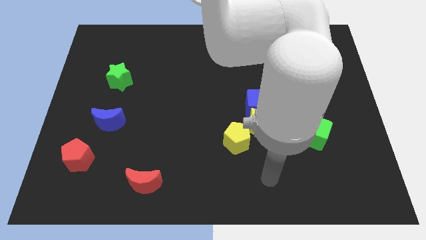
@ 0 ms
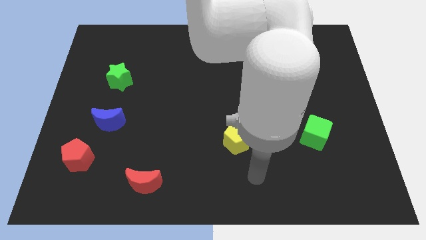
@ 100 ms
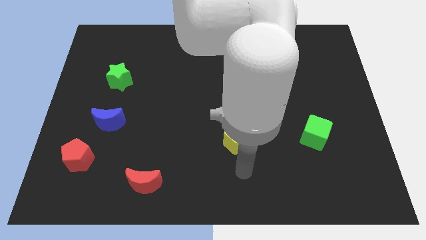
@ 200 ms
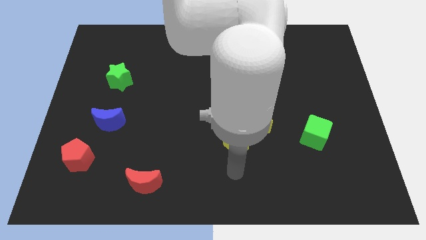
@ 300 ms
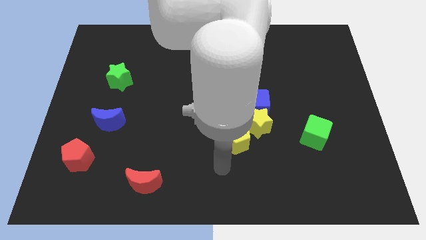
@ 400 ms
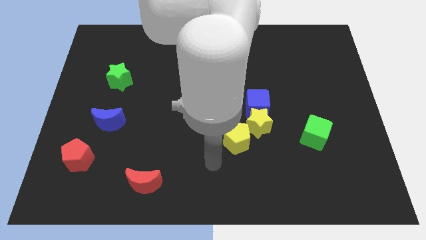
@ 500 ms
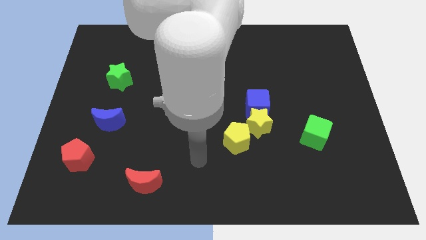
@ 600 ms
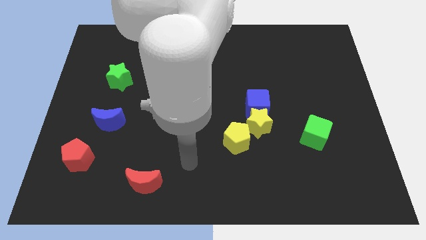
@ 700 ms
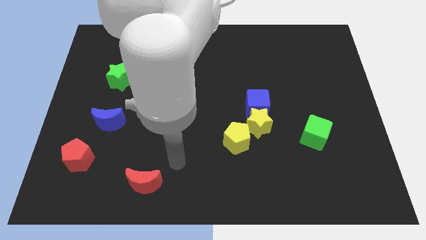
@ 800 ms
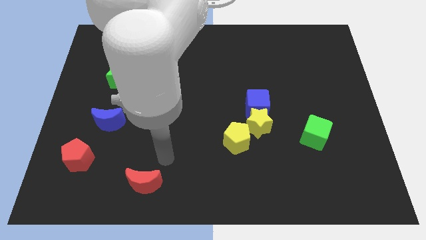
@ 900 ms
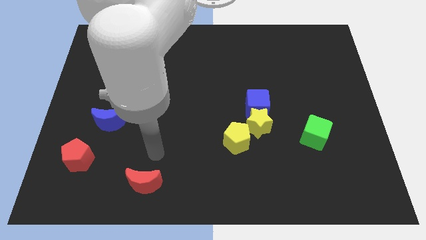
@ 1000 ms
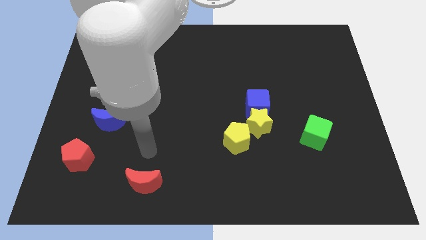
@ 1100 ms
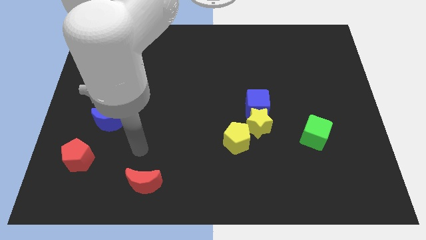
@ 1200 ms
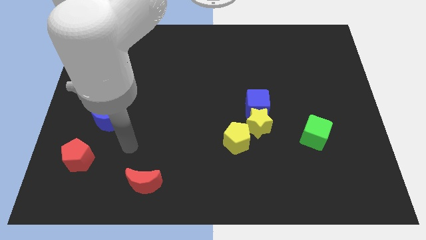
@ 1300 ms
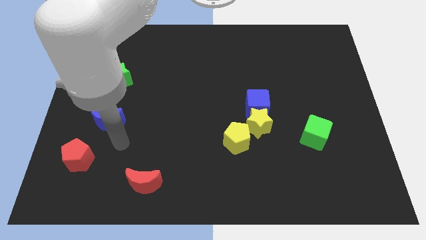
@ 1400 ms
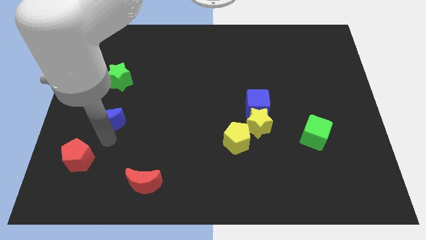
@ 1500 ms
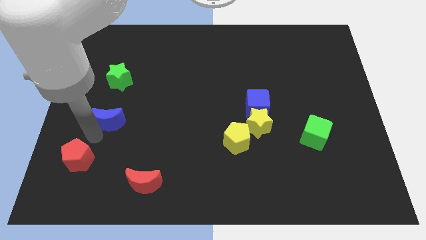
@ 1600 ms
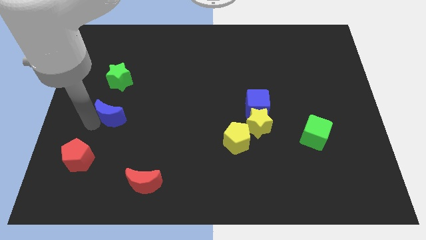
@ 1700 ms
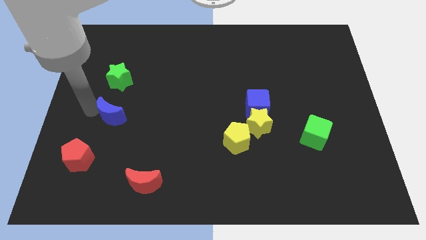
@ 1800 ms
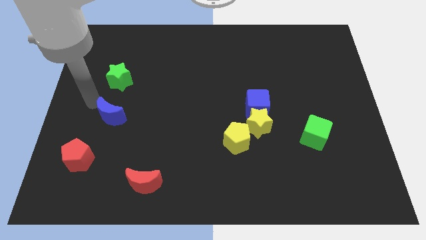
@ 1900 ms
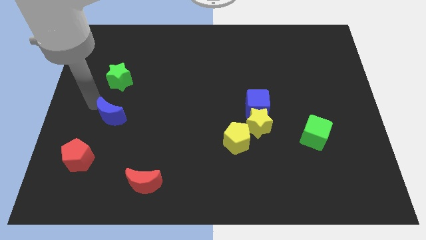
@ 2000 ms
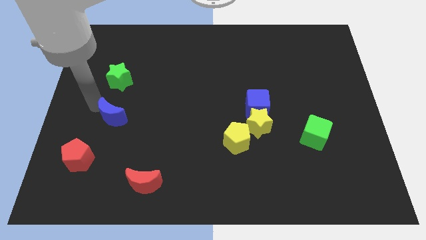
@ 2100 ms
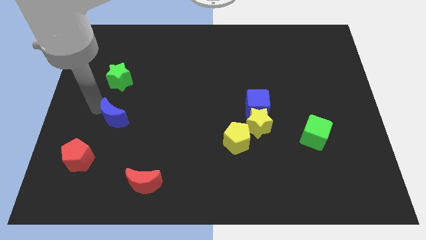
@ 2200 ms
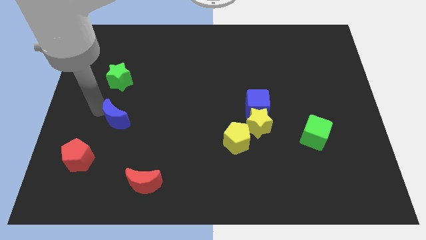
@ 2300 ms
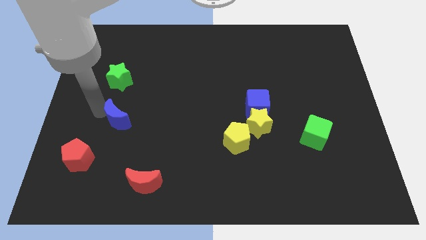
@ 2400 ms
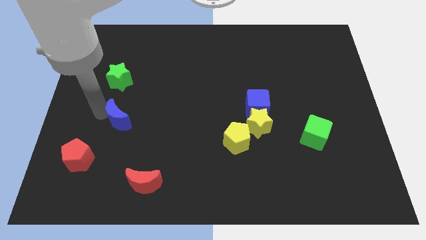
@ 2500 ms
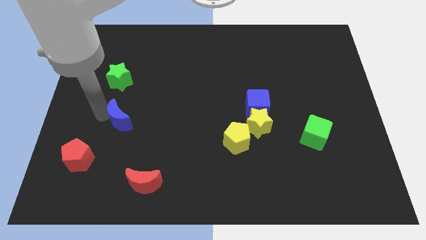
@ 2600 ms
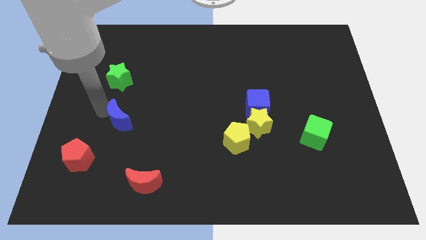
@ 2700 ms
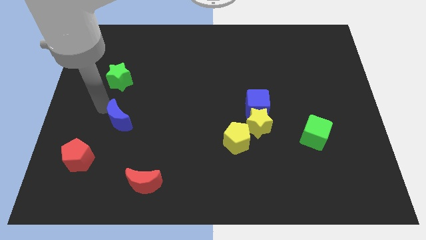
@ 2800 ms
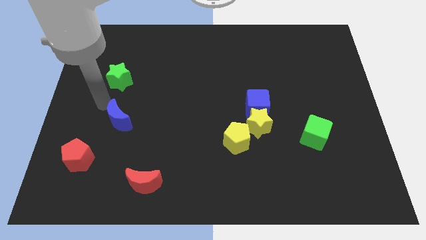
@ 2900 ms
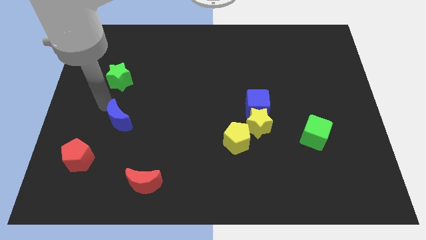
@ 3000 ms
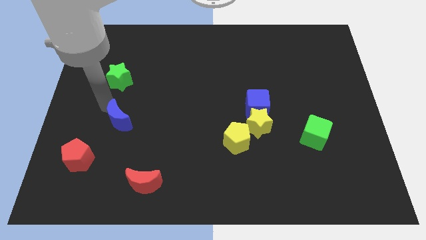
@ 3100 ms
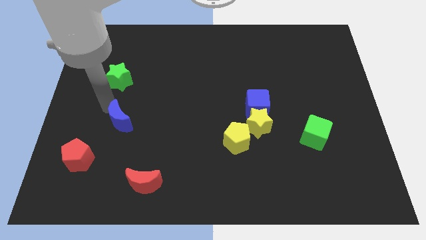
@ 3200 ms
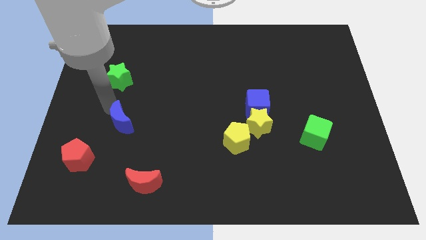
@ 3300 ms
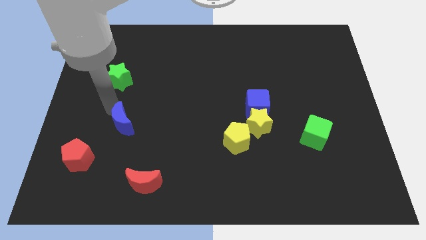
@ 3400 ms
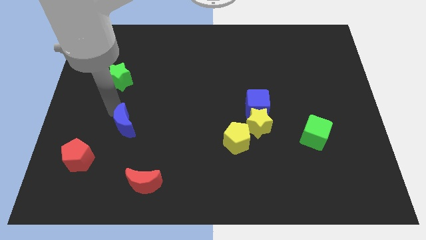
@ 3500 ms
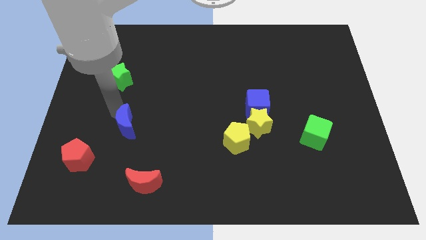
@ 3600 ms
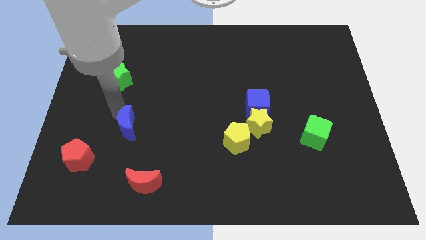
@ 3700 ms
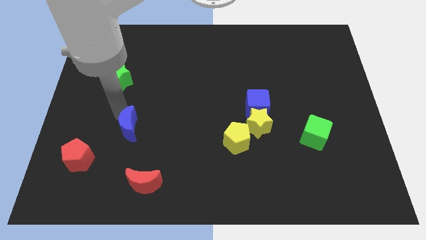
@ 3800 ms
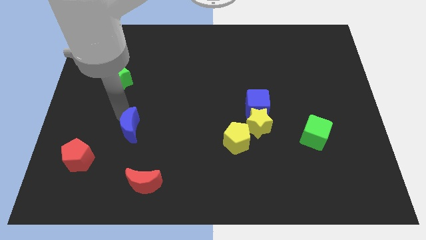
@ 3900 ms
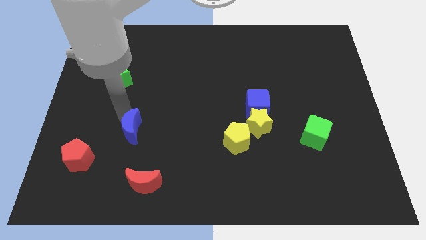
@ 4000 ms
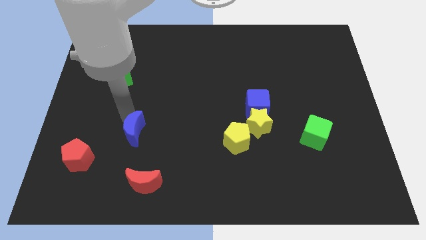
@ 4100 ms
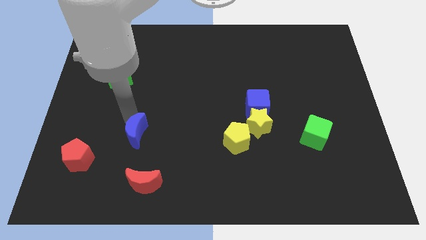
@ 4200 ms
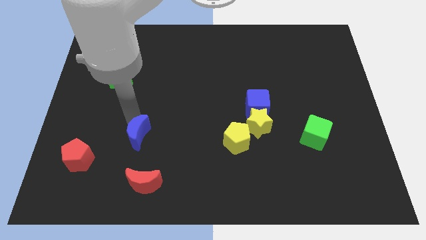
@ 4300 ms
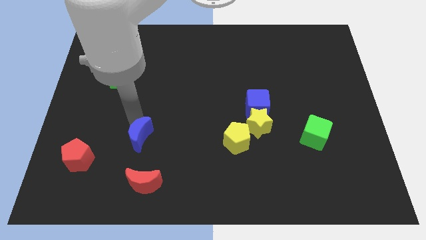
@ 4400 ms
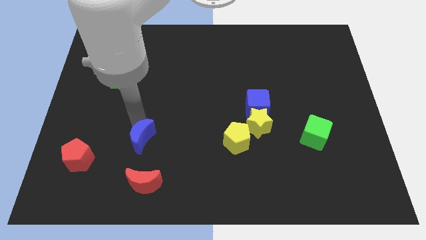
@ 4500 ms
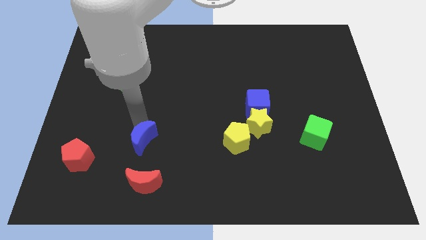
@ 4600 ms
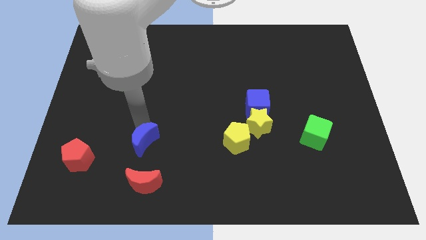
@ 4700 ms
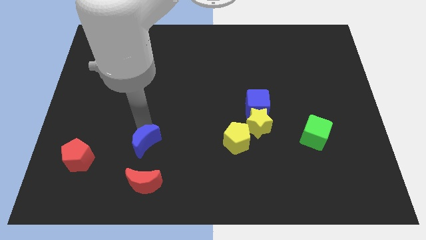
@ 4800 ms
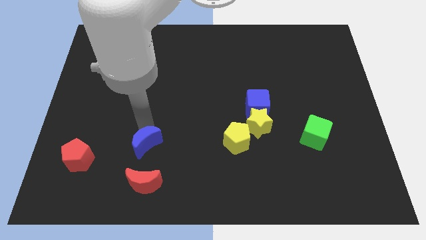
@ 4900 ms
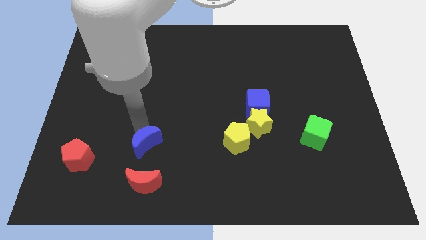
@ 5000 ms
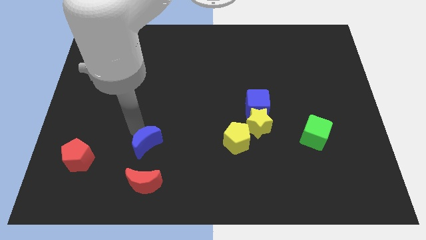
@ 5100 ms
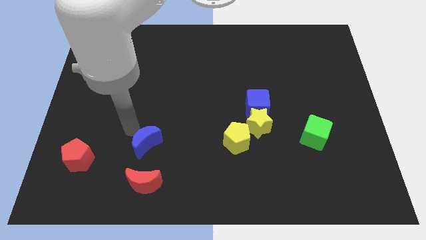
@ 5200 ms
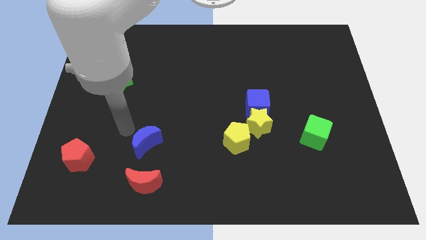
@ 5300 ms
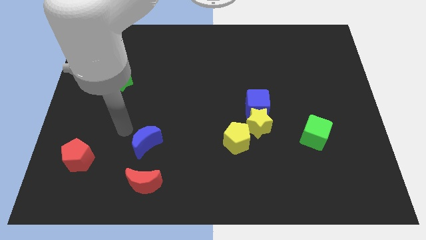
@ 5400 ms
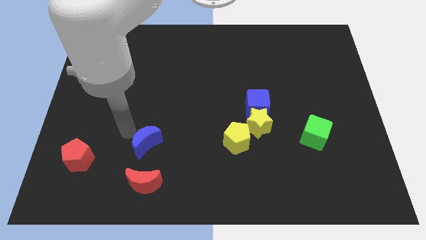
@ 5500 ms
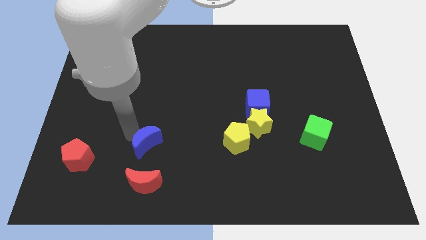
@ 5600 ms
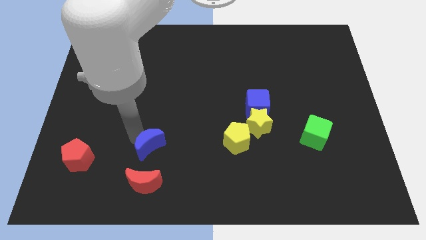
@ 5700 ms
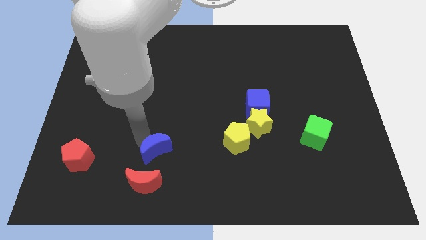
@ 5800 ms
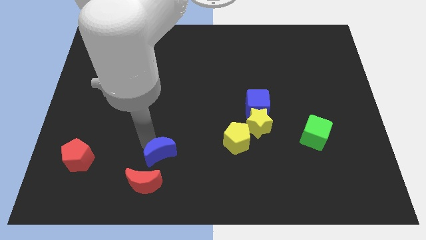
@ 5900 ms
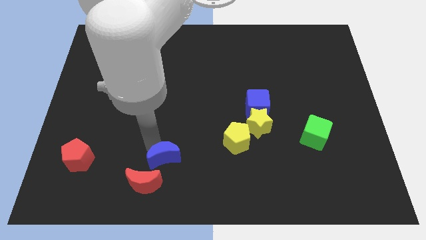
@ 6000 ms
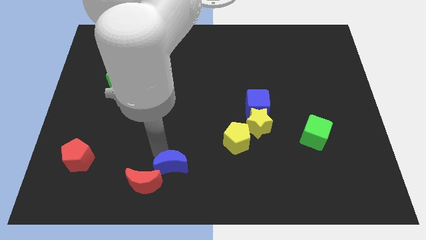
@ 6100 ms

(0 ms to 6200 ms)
slide the blue moon to the bottom side
